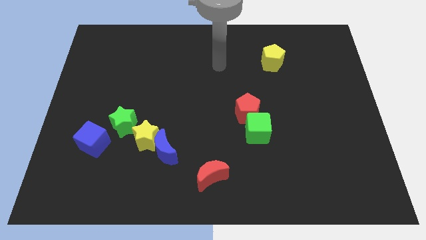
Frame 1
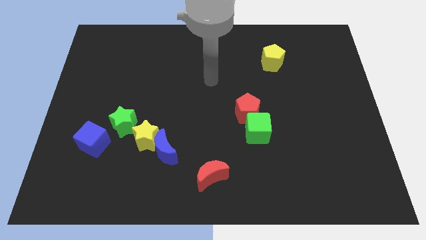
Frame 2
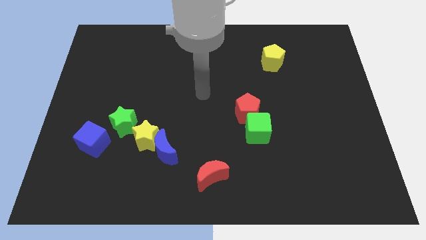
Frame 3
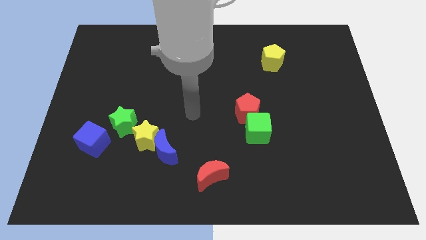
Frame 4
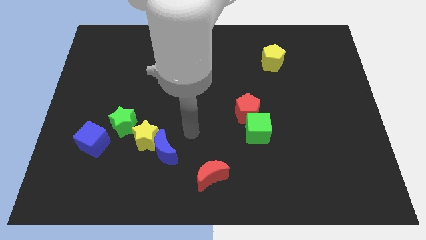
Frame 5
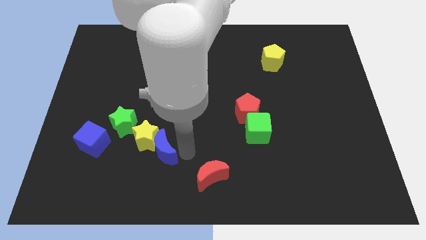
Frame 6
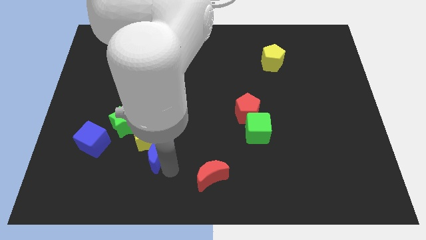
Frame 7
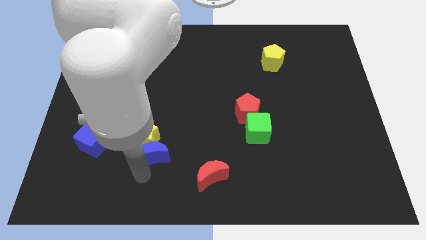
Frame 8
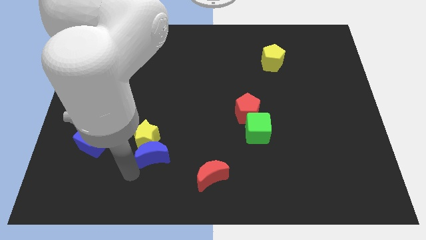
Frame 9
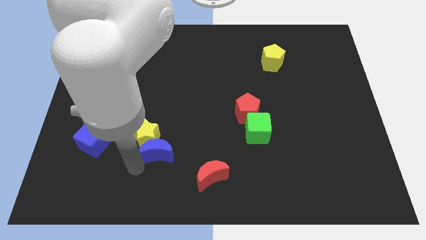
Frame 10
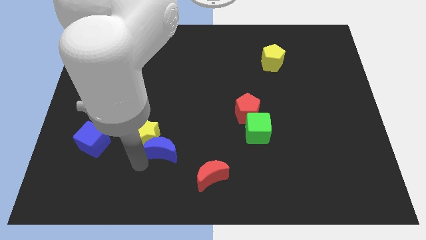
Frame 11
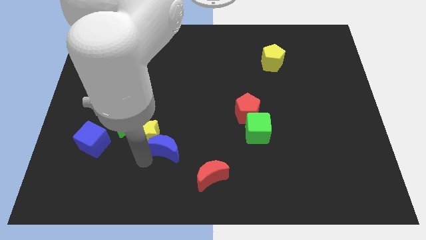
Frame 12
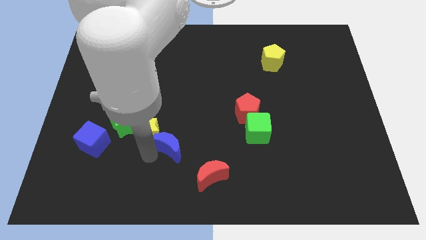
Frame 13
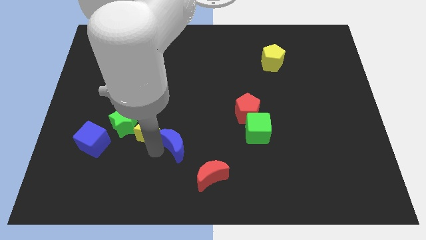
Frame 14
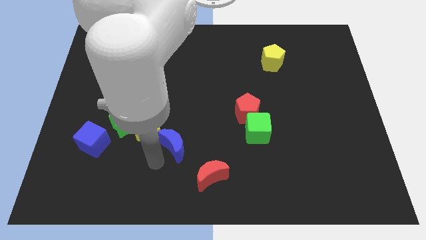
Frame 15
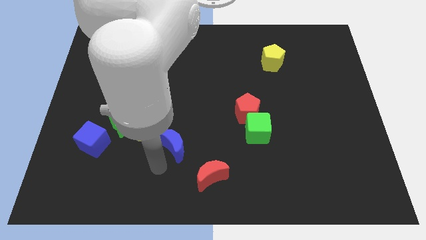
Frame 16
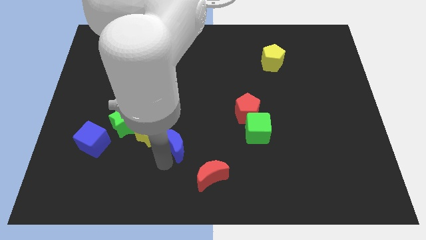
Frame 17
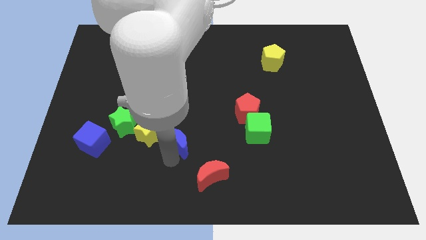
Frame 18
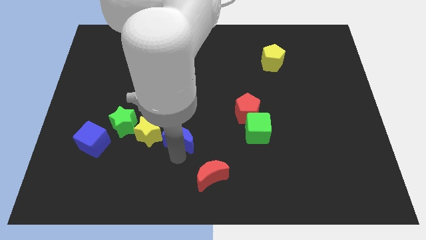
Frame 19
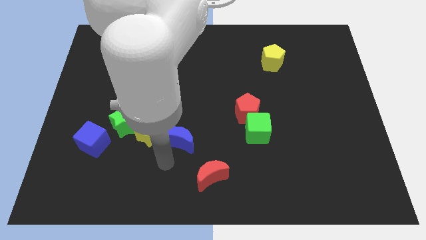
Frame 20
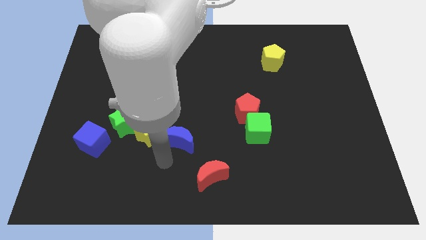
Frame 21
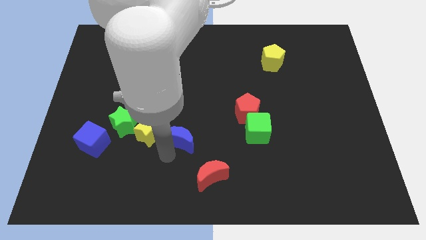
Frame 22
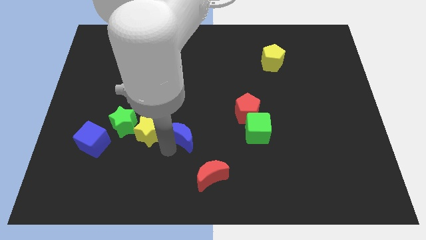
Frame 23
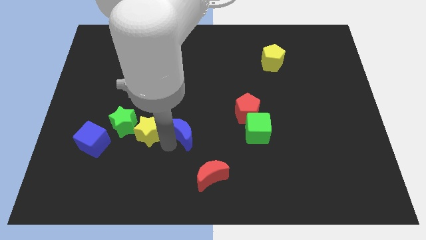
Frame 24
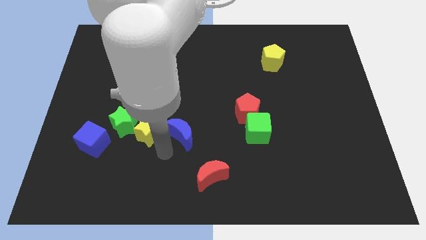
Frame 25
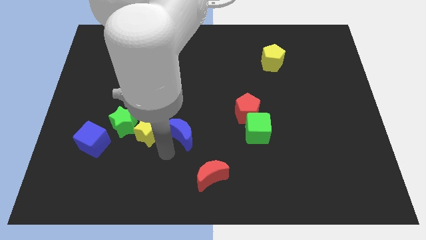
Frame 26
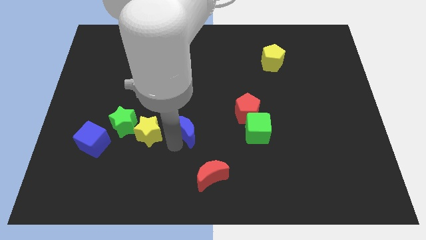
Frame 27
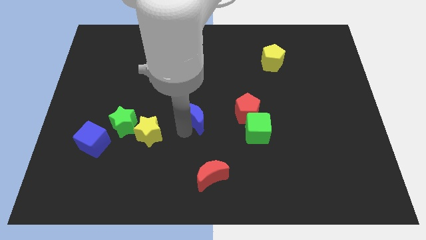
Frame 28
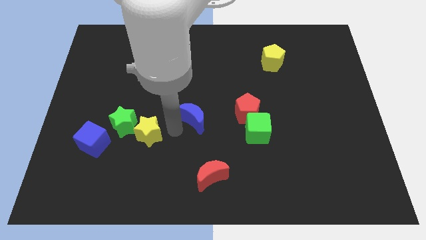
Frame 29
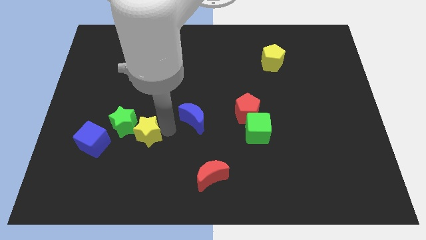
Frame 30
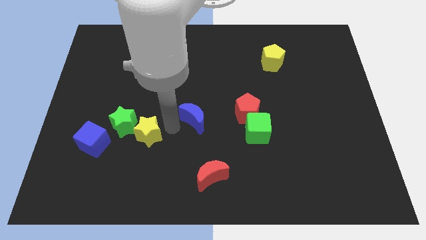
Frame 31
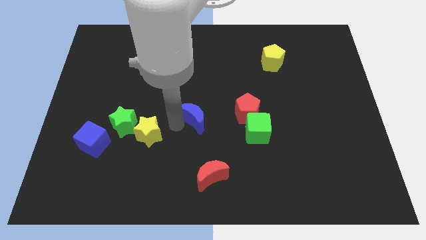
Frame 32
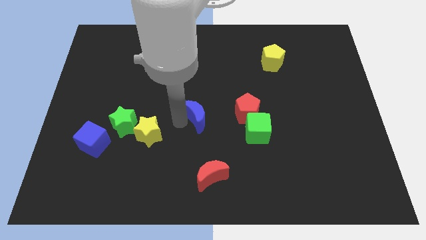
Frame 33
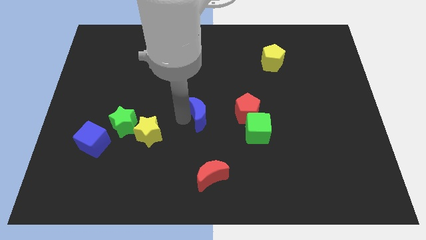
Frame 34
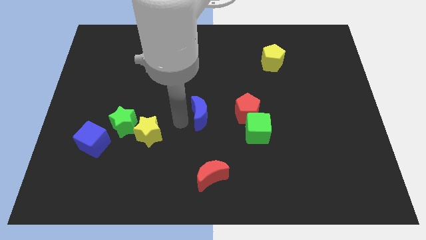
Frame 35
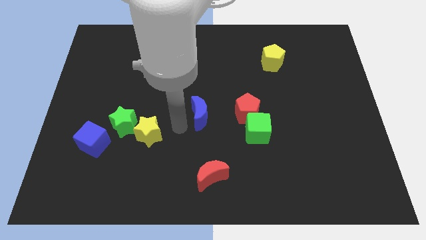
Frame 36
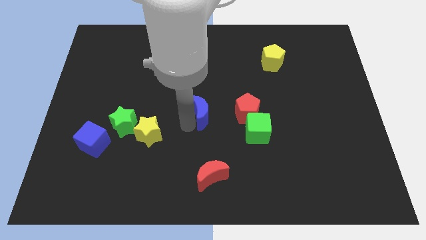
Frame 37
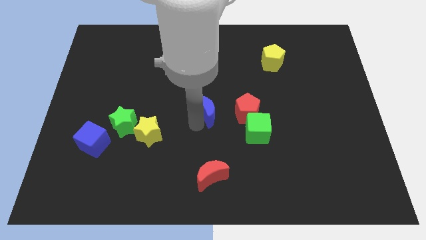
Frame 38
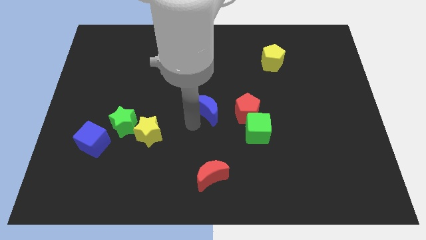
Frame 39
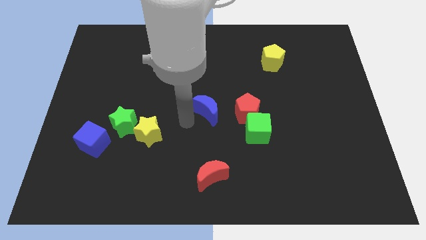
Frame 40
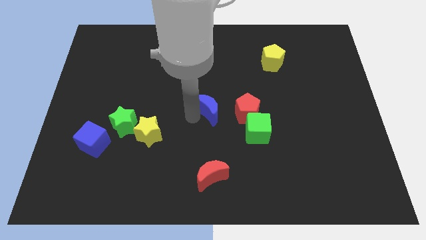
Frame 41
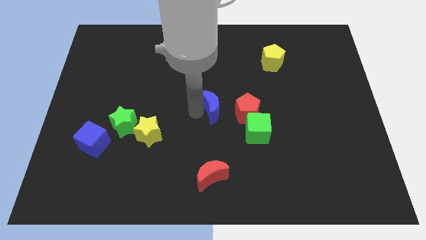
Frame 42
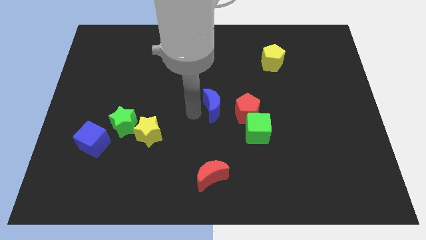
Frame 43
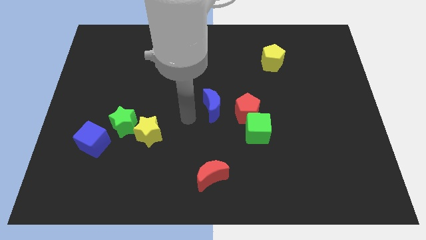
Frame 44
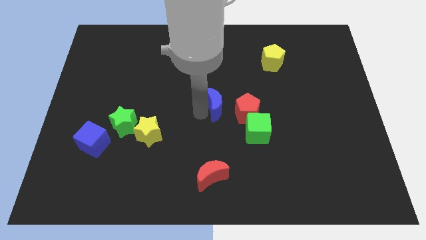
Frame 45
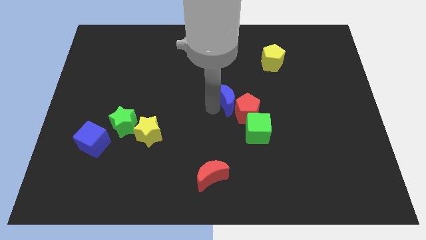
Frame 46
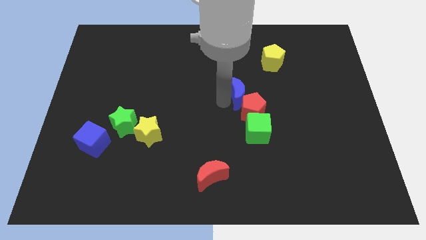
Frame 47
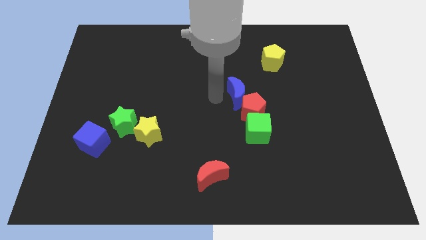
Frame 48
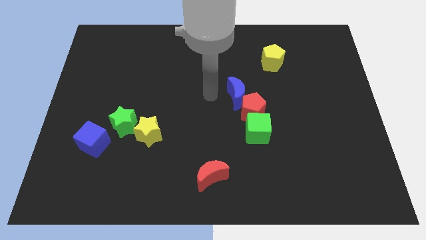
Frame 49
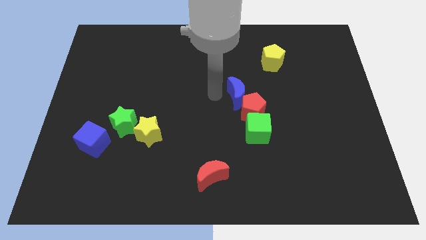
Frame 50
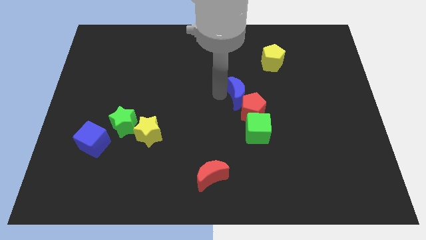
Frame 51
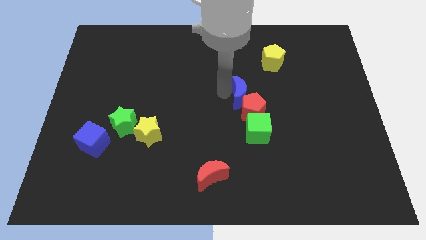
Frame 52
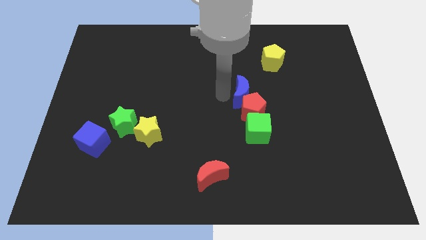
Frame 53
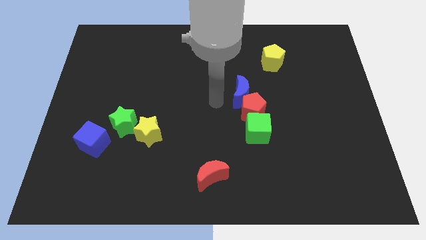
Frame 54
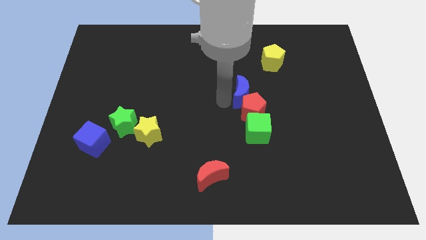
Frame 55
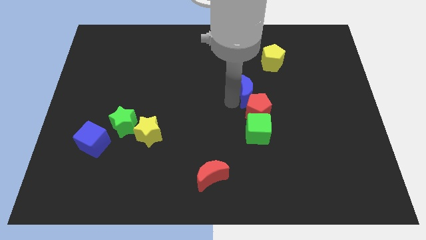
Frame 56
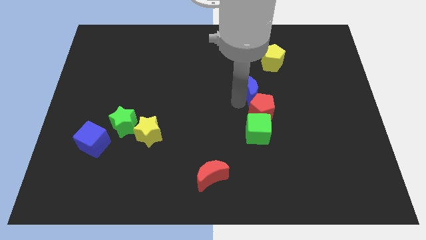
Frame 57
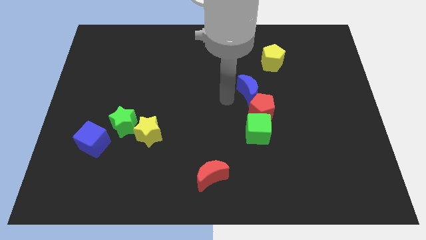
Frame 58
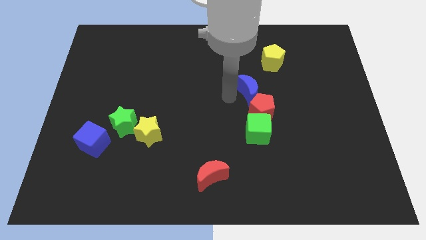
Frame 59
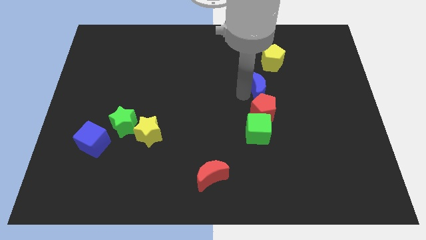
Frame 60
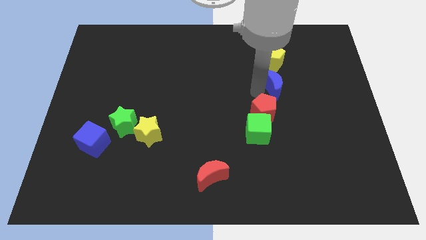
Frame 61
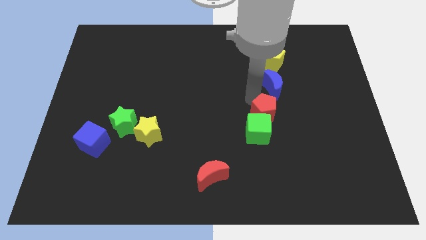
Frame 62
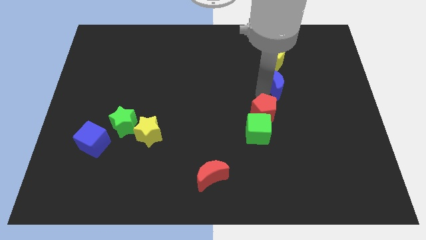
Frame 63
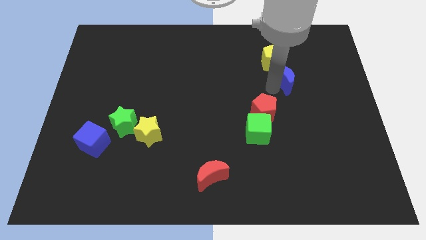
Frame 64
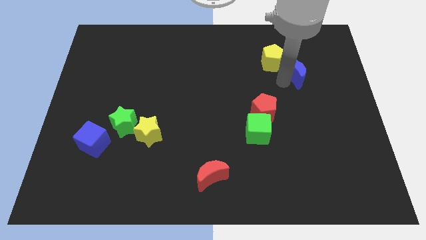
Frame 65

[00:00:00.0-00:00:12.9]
push the blue moon to the right side of the yellow pentagon

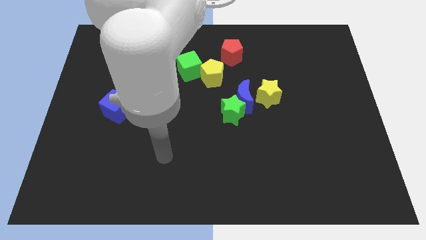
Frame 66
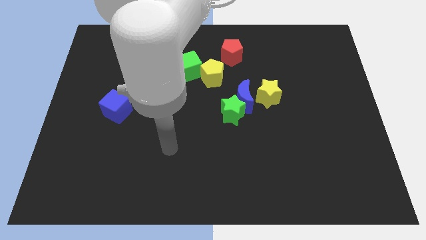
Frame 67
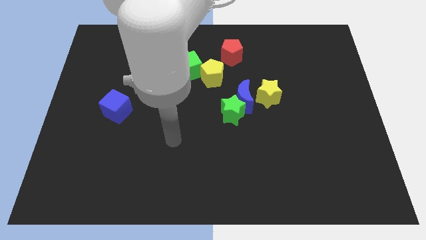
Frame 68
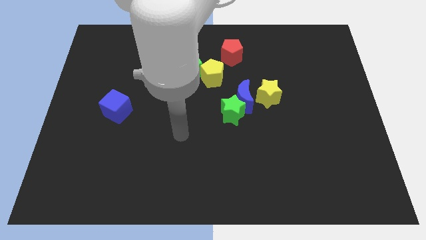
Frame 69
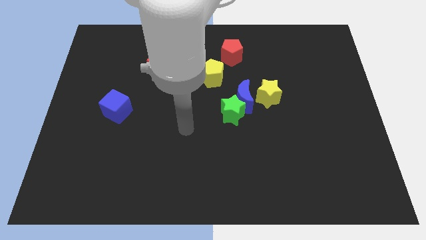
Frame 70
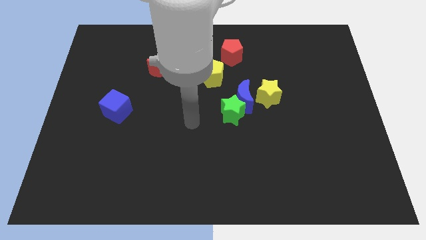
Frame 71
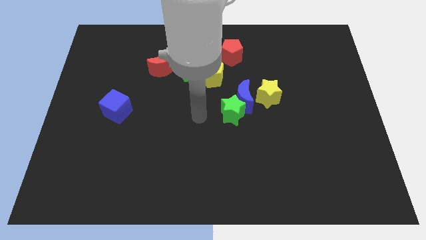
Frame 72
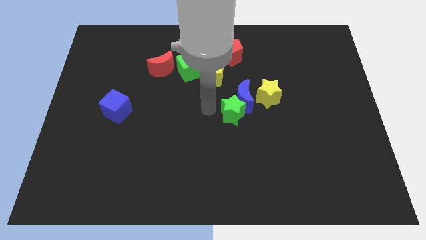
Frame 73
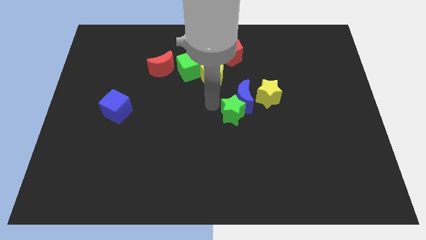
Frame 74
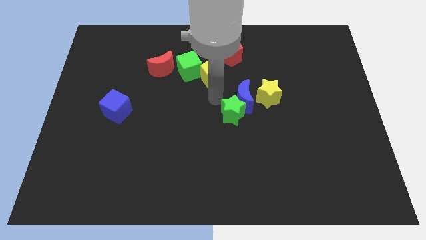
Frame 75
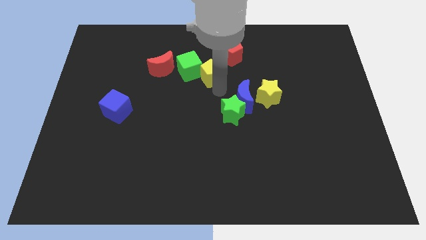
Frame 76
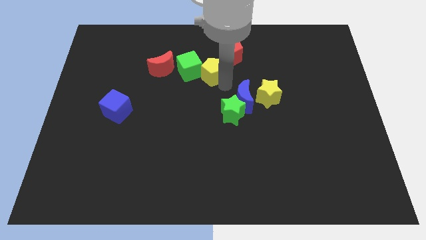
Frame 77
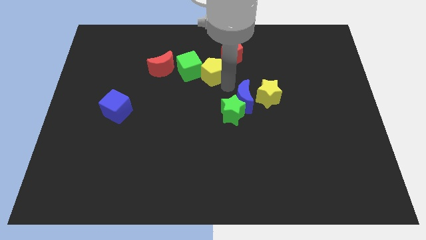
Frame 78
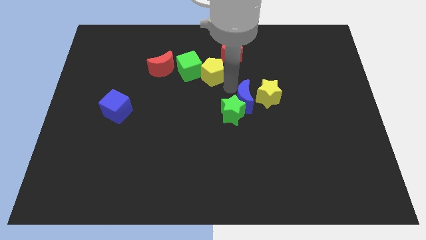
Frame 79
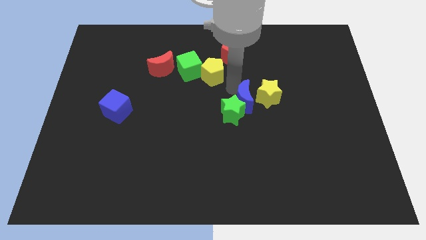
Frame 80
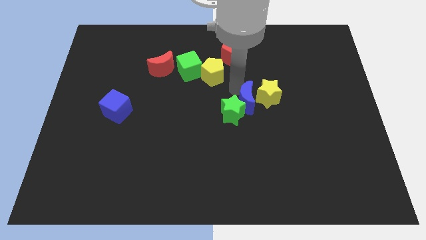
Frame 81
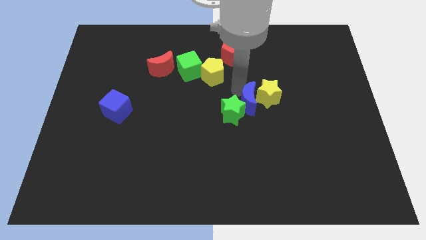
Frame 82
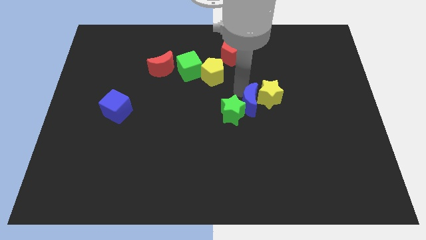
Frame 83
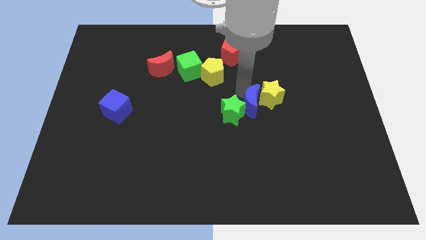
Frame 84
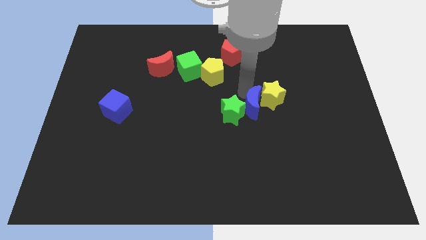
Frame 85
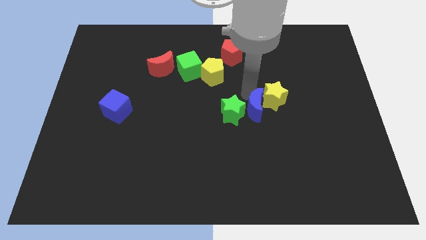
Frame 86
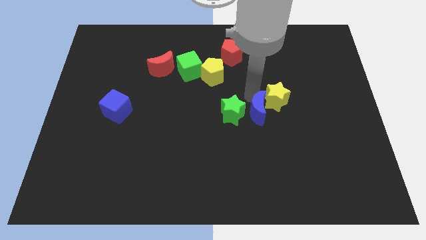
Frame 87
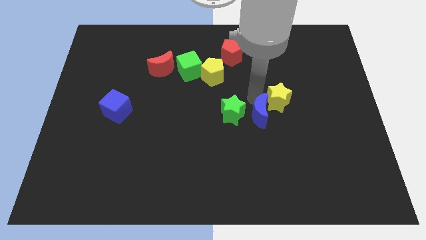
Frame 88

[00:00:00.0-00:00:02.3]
put the blue moon to the bottom of the yellow star
